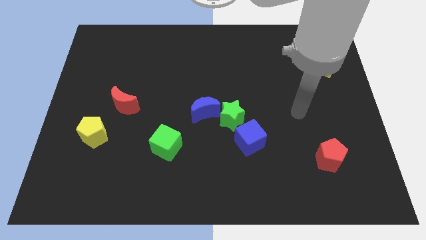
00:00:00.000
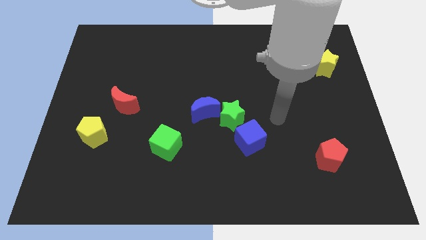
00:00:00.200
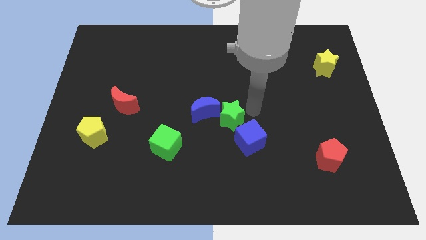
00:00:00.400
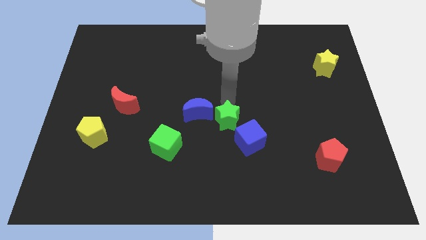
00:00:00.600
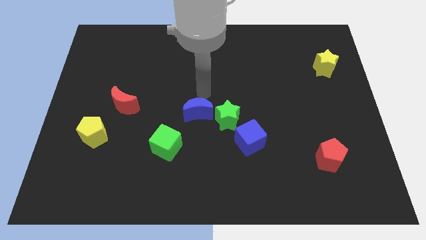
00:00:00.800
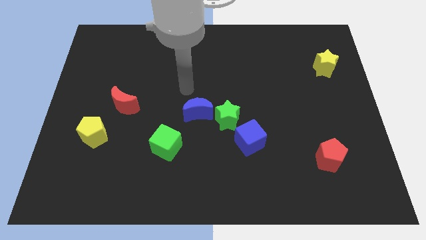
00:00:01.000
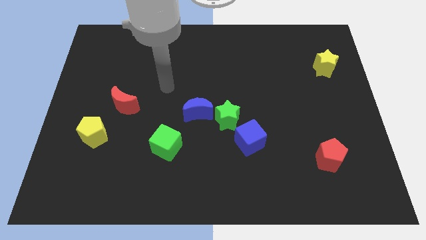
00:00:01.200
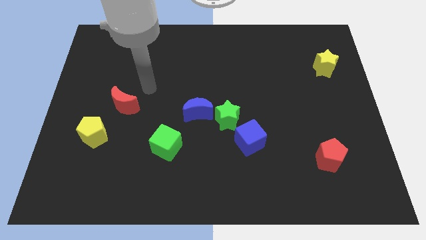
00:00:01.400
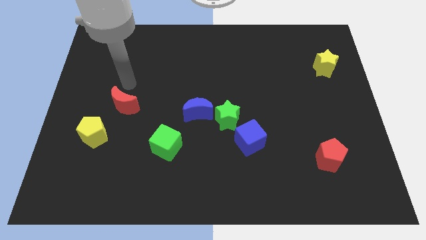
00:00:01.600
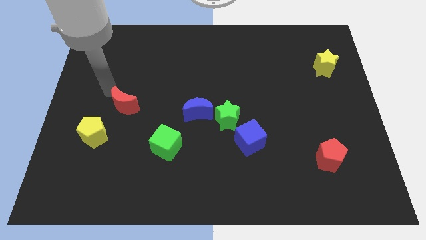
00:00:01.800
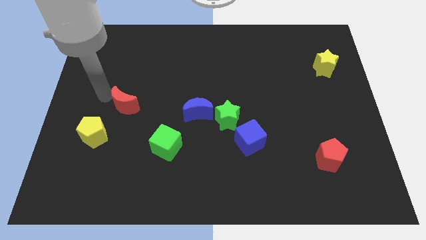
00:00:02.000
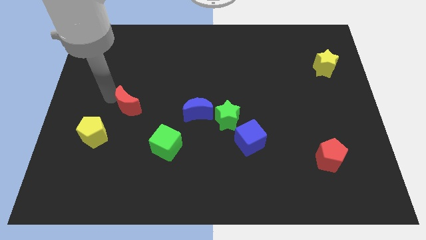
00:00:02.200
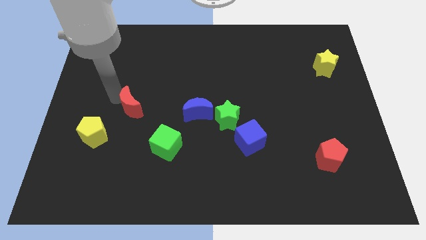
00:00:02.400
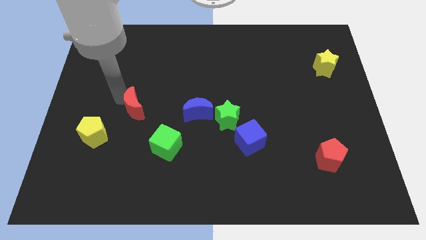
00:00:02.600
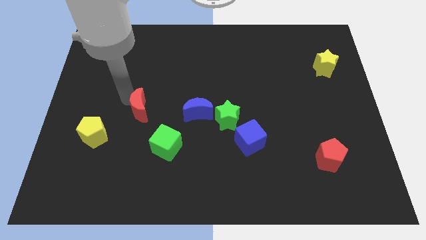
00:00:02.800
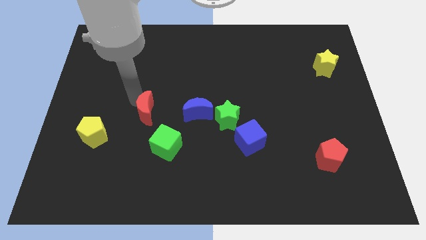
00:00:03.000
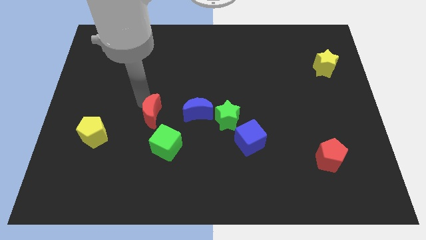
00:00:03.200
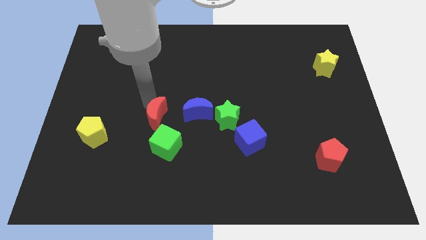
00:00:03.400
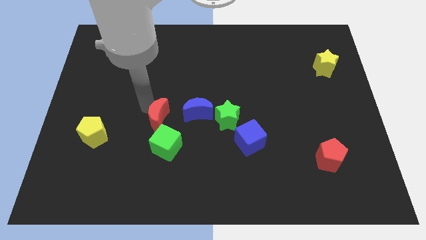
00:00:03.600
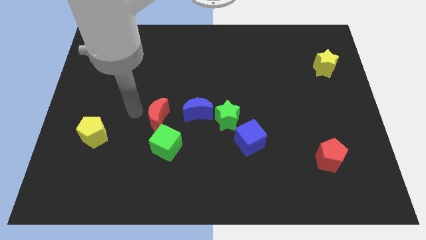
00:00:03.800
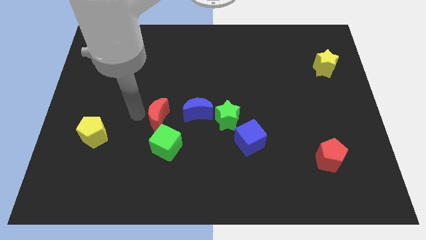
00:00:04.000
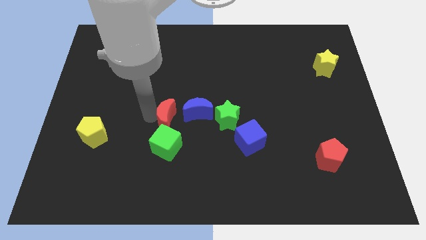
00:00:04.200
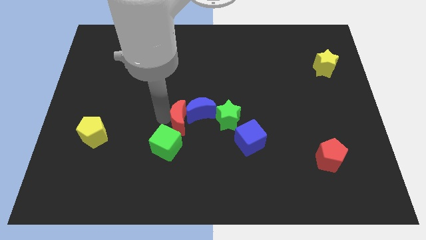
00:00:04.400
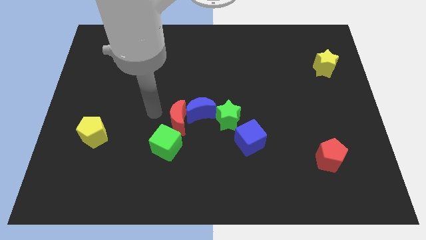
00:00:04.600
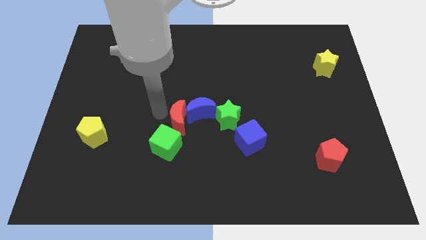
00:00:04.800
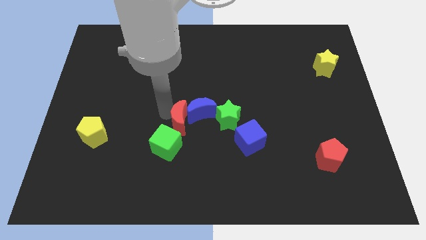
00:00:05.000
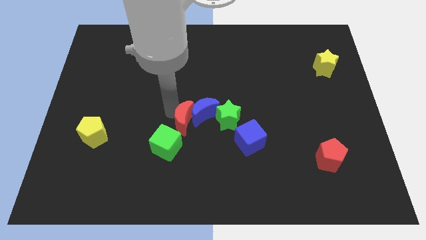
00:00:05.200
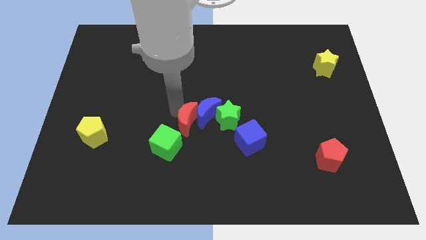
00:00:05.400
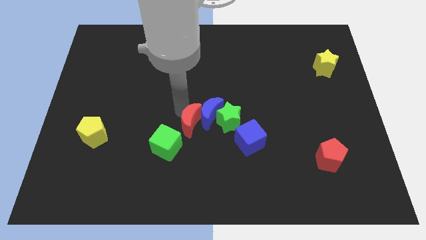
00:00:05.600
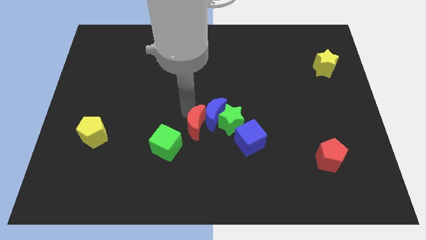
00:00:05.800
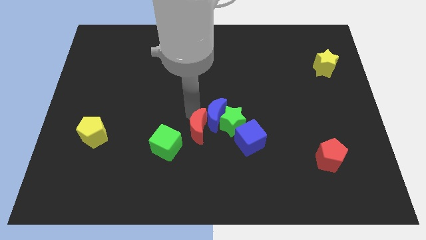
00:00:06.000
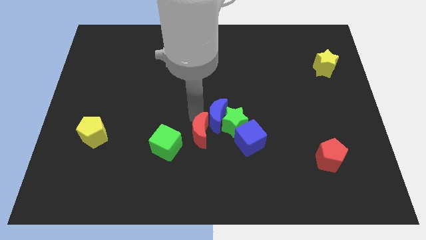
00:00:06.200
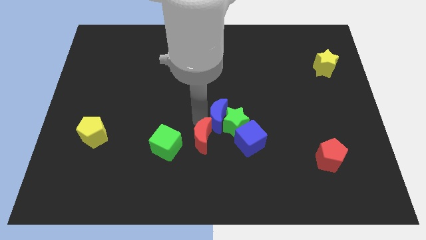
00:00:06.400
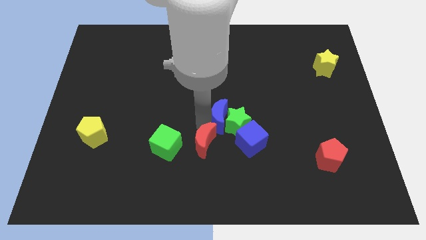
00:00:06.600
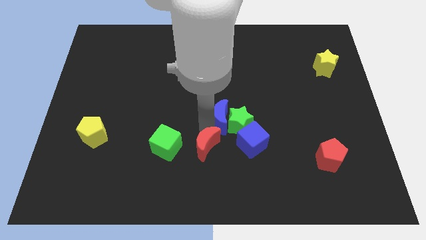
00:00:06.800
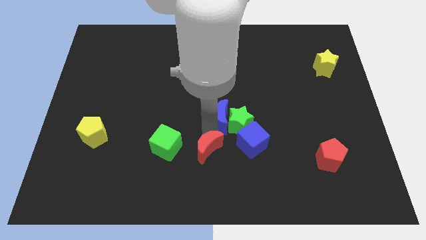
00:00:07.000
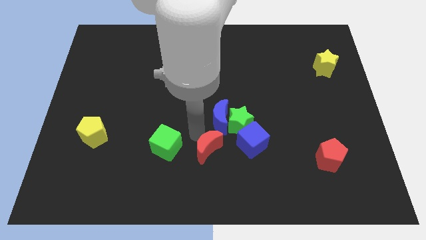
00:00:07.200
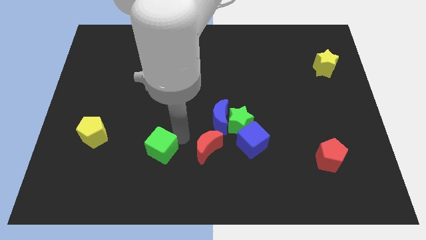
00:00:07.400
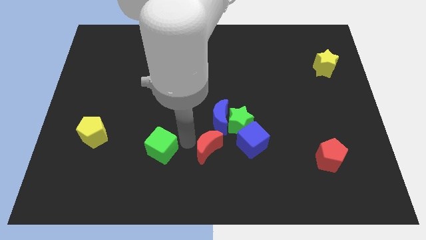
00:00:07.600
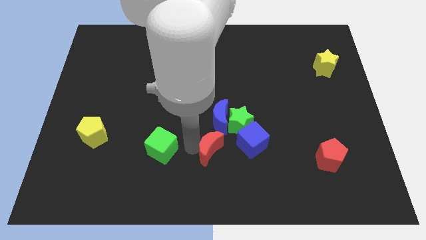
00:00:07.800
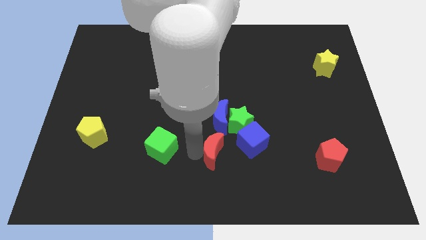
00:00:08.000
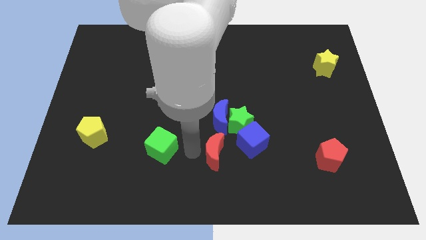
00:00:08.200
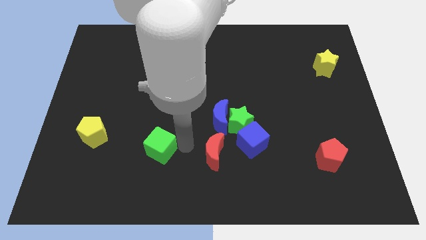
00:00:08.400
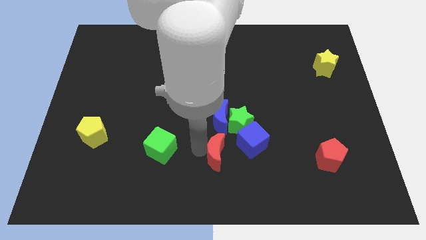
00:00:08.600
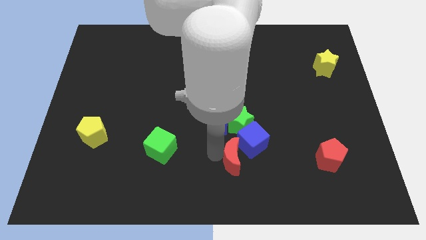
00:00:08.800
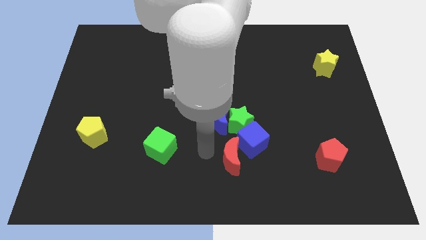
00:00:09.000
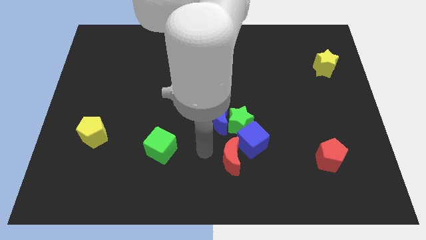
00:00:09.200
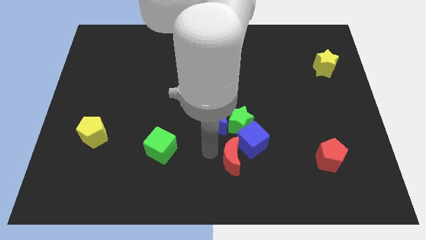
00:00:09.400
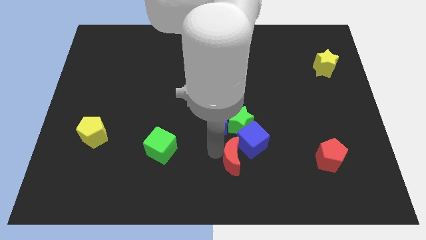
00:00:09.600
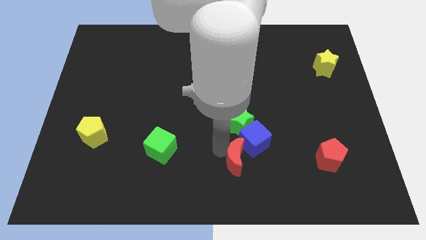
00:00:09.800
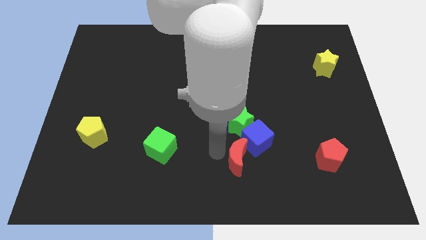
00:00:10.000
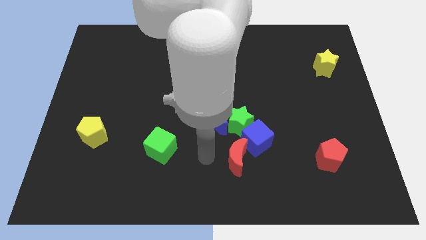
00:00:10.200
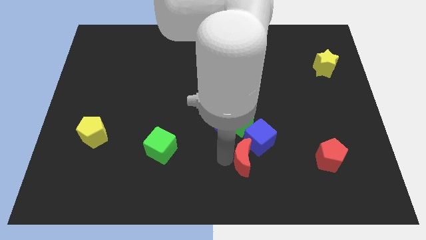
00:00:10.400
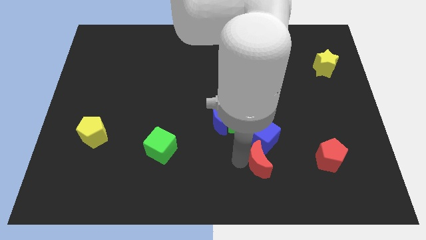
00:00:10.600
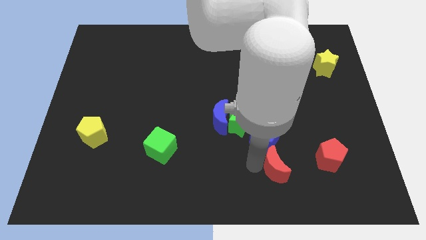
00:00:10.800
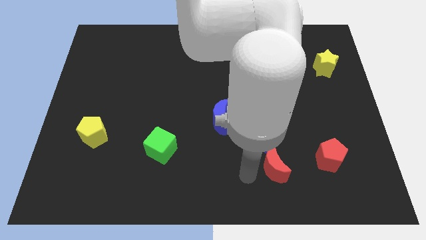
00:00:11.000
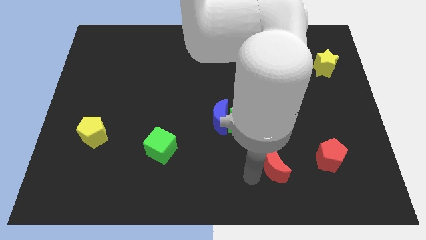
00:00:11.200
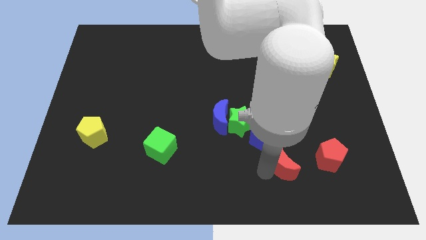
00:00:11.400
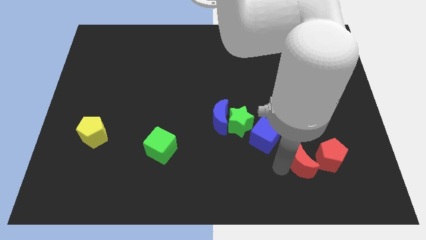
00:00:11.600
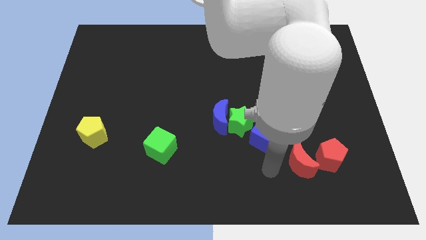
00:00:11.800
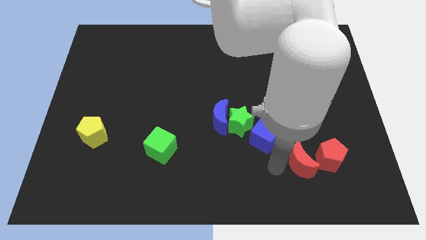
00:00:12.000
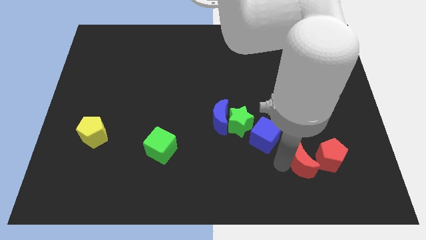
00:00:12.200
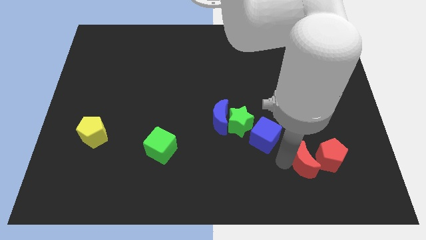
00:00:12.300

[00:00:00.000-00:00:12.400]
put the red moon next to the red pentagon

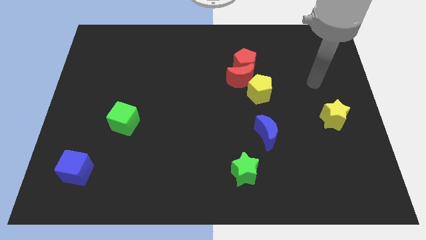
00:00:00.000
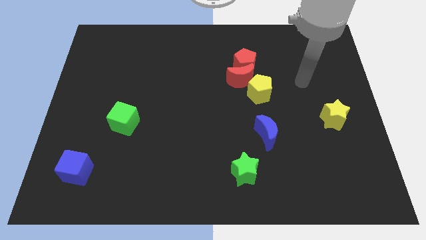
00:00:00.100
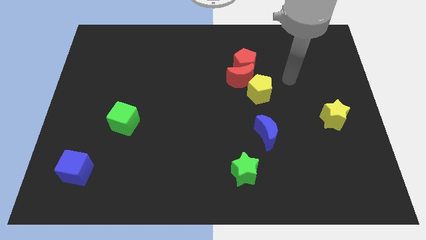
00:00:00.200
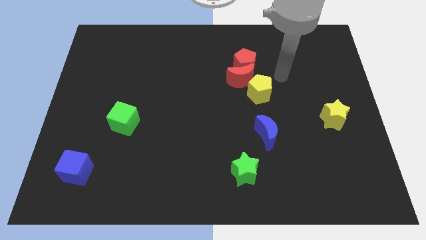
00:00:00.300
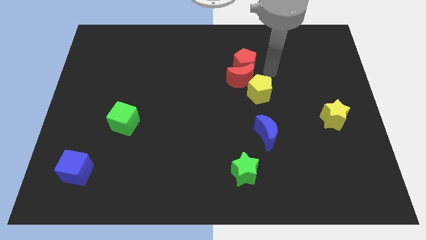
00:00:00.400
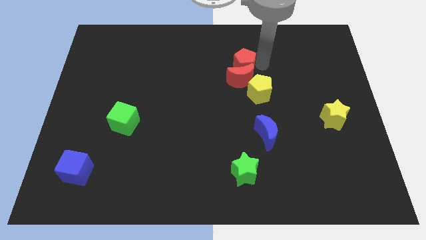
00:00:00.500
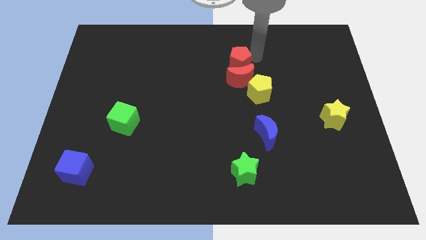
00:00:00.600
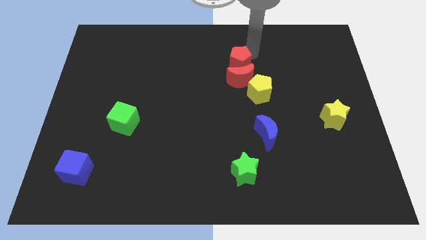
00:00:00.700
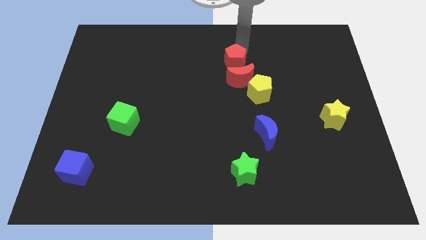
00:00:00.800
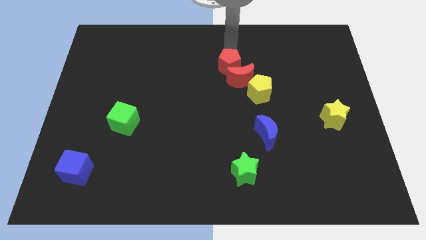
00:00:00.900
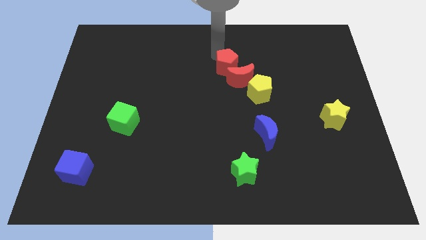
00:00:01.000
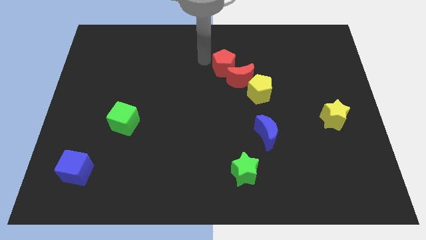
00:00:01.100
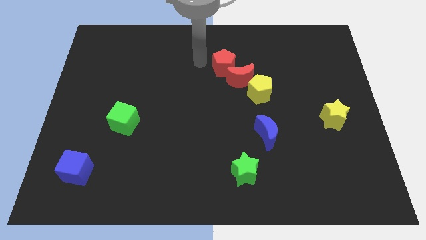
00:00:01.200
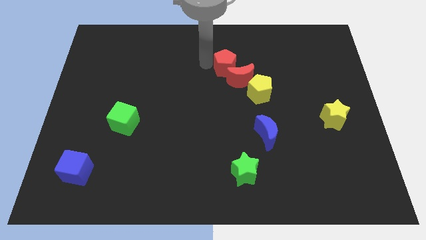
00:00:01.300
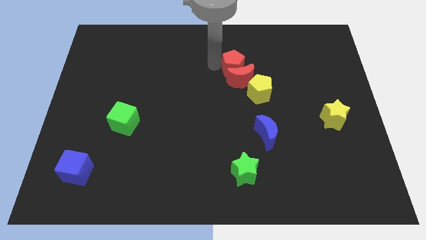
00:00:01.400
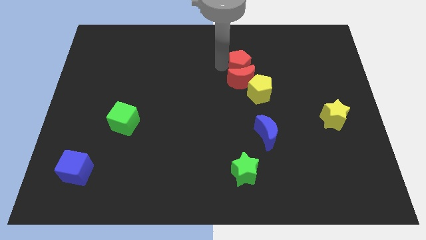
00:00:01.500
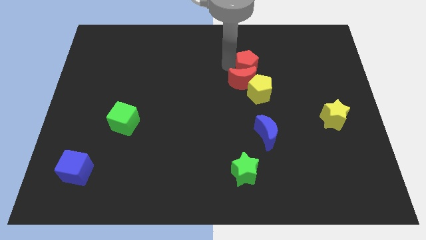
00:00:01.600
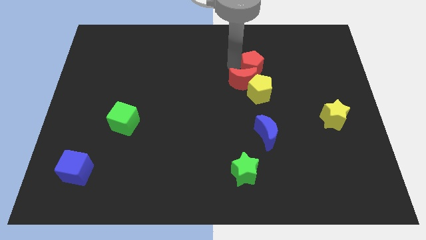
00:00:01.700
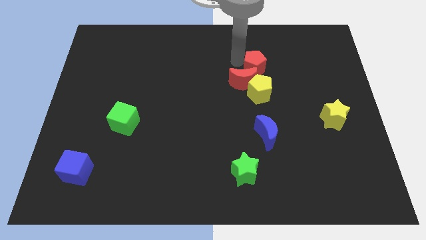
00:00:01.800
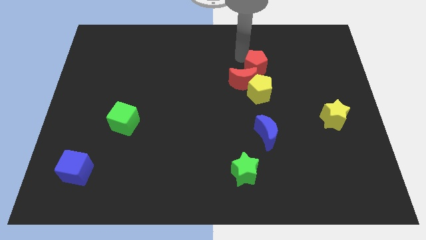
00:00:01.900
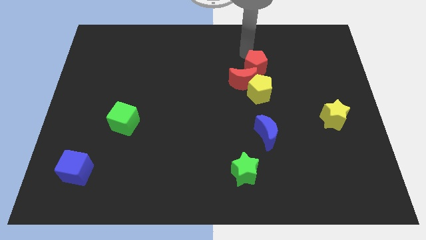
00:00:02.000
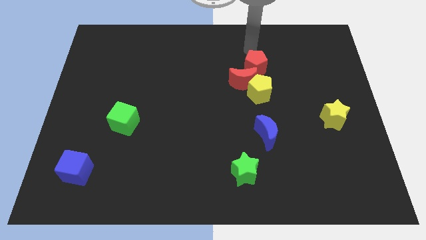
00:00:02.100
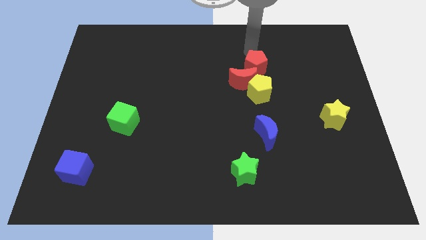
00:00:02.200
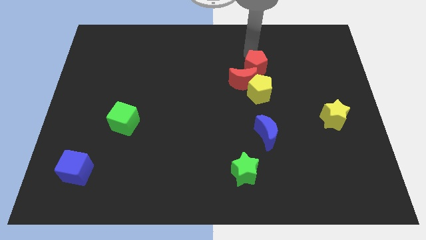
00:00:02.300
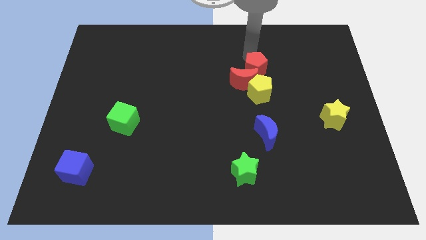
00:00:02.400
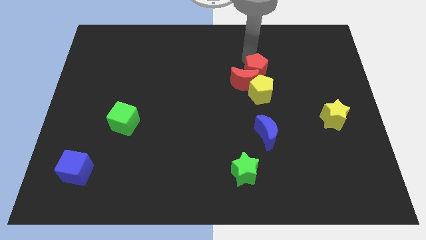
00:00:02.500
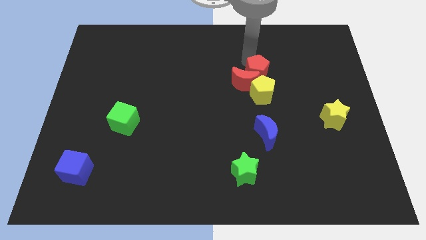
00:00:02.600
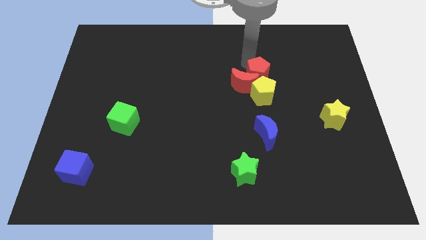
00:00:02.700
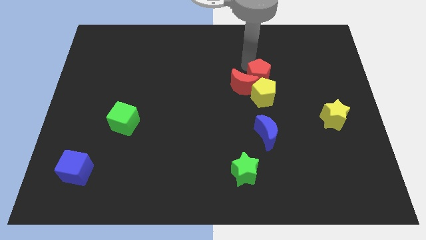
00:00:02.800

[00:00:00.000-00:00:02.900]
push the red pentagon towards the yellow pentagon
